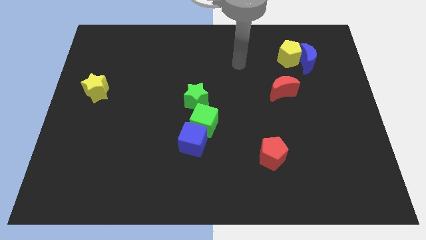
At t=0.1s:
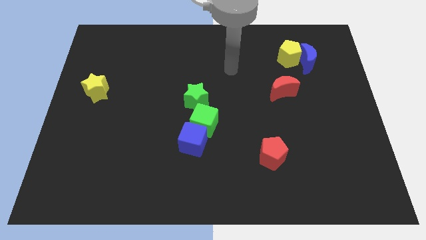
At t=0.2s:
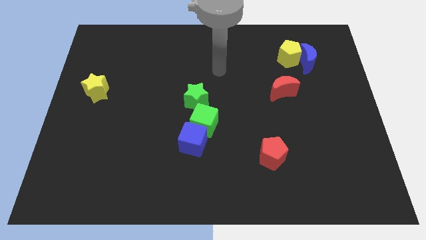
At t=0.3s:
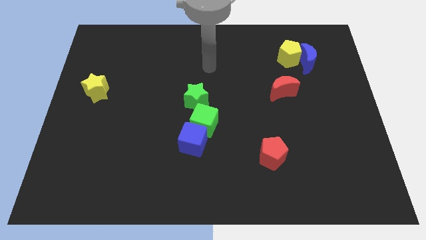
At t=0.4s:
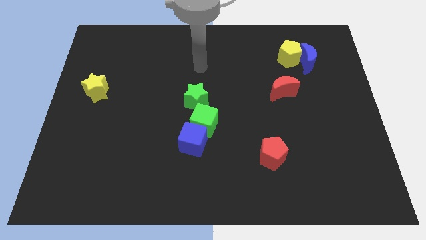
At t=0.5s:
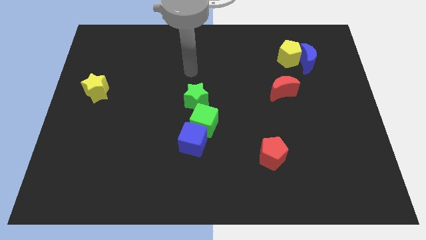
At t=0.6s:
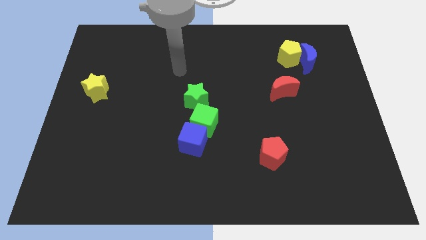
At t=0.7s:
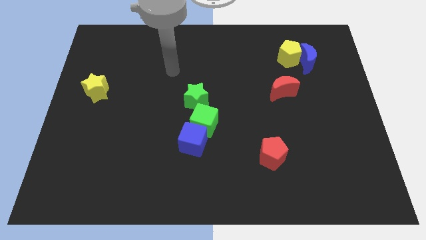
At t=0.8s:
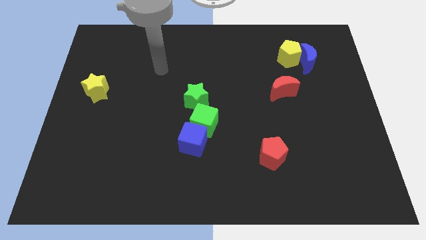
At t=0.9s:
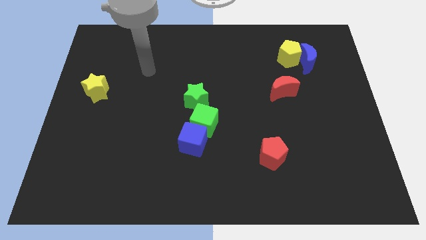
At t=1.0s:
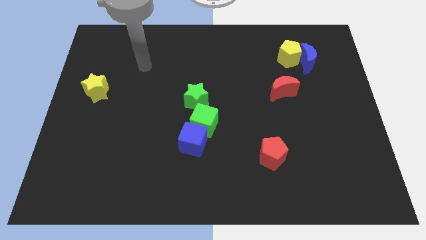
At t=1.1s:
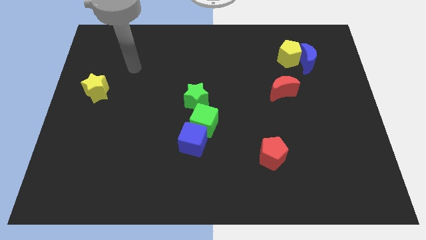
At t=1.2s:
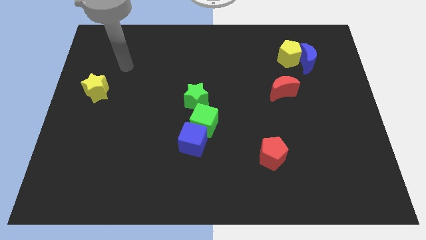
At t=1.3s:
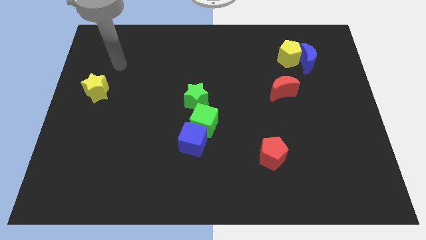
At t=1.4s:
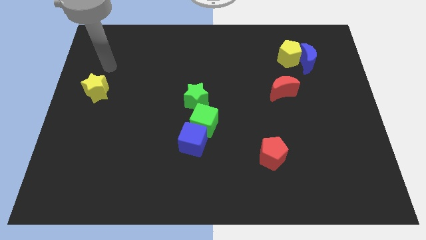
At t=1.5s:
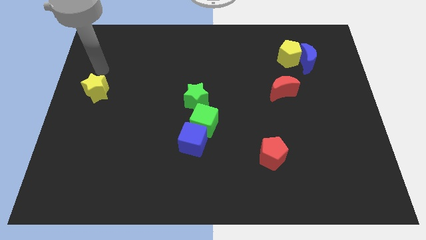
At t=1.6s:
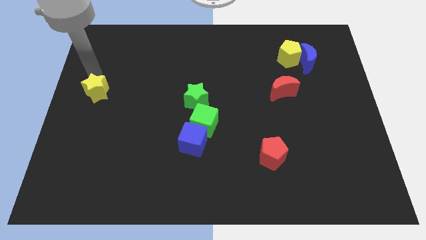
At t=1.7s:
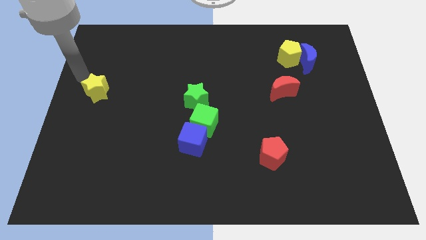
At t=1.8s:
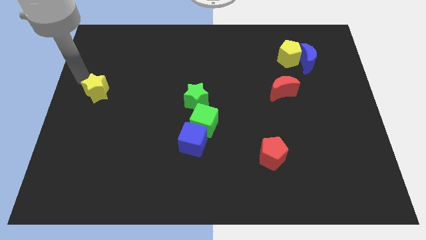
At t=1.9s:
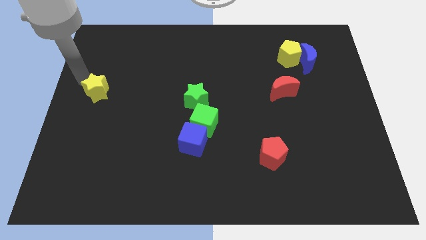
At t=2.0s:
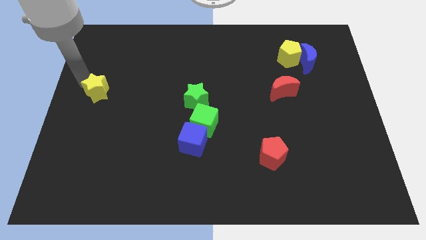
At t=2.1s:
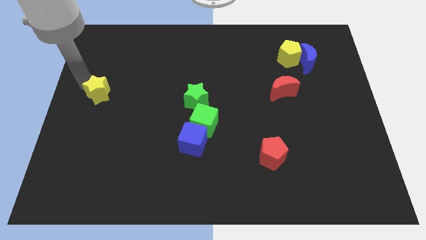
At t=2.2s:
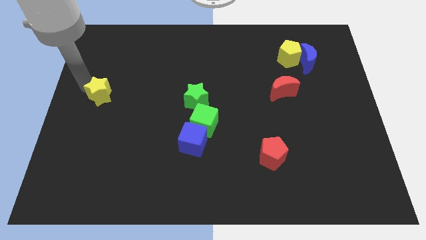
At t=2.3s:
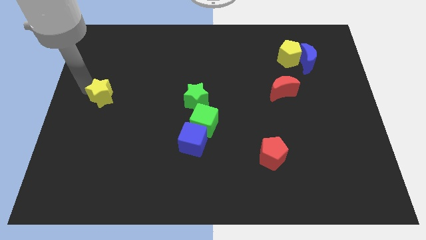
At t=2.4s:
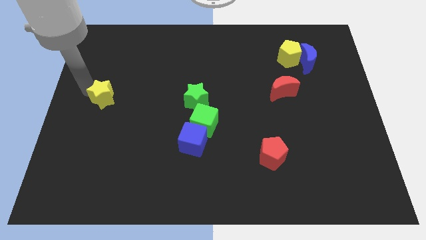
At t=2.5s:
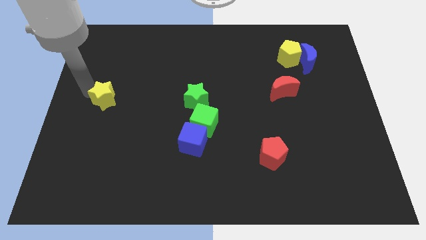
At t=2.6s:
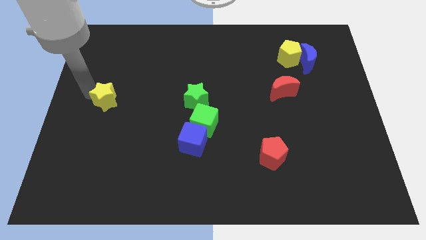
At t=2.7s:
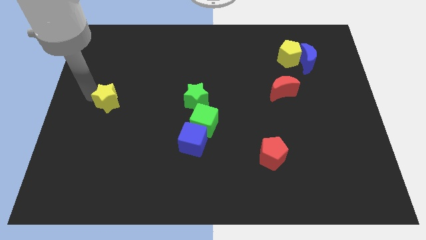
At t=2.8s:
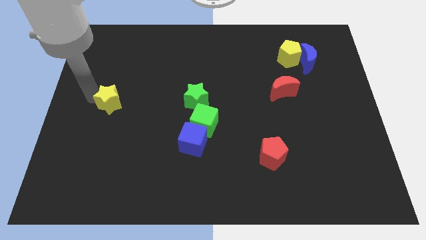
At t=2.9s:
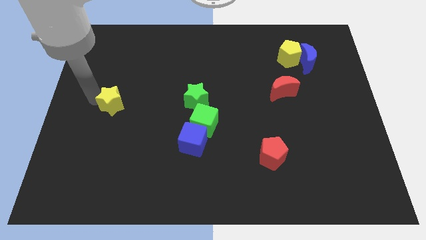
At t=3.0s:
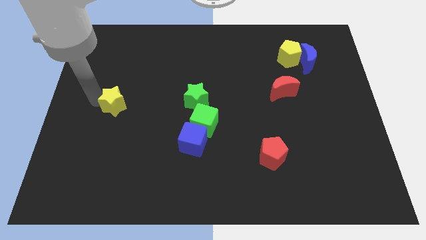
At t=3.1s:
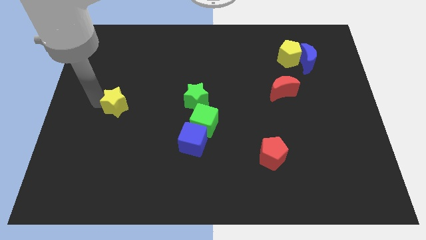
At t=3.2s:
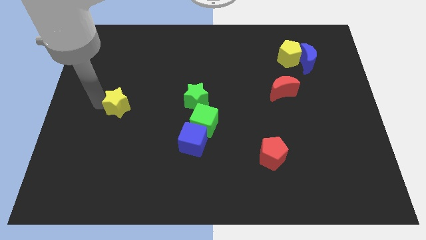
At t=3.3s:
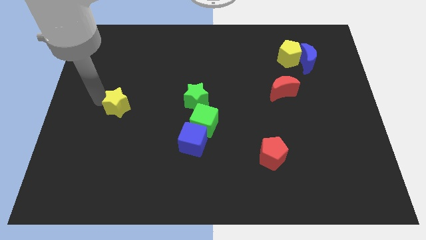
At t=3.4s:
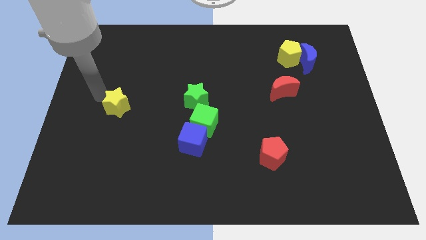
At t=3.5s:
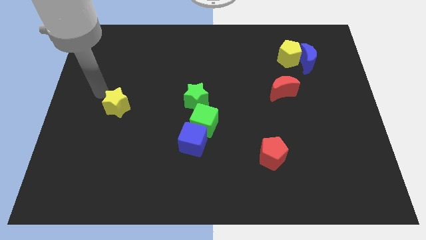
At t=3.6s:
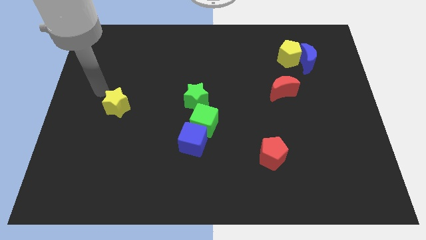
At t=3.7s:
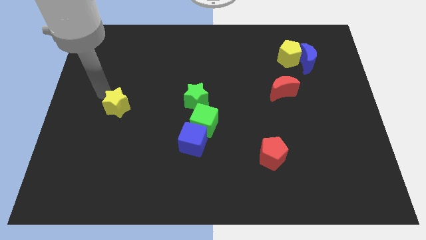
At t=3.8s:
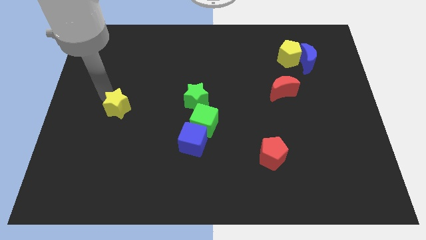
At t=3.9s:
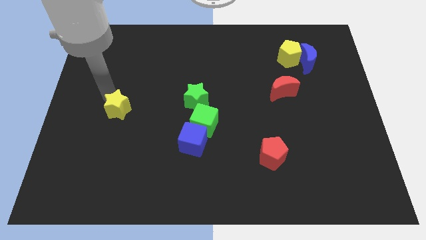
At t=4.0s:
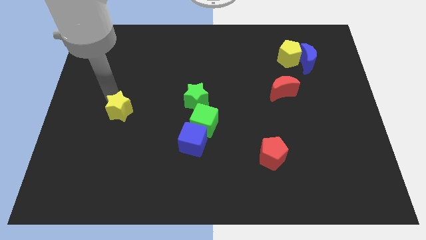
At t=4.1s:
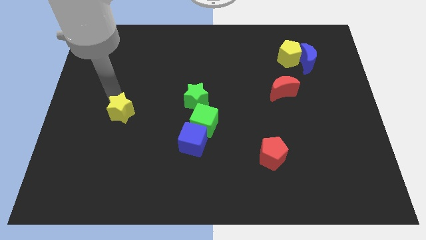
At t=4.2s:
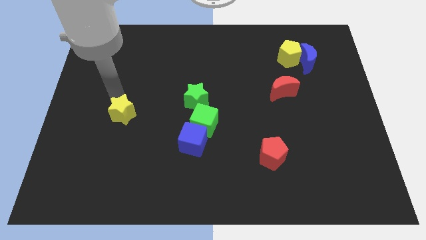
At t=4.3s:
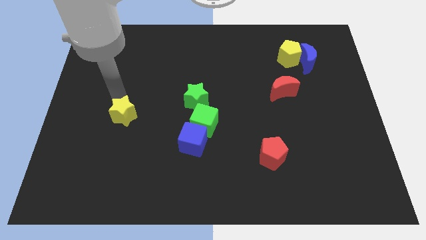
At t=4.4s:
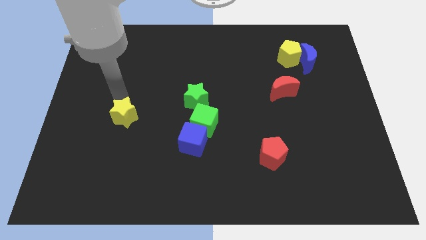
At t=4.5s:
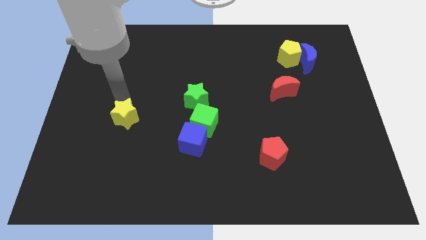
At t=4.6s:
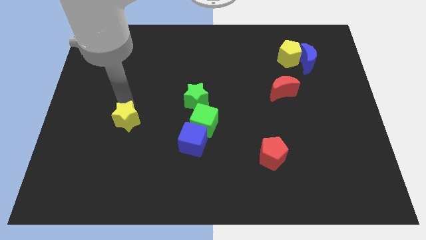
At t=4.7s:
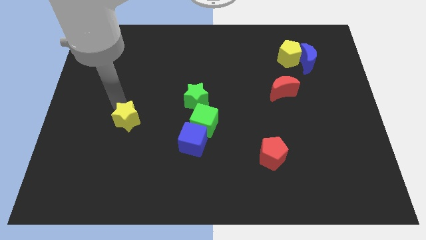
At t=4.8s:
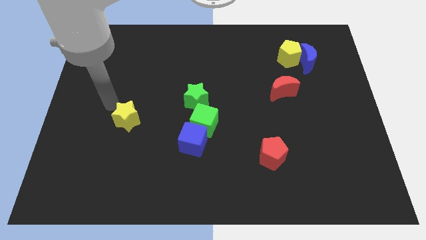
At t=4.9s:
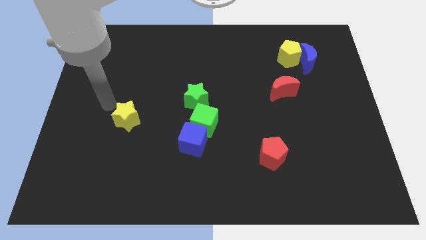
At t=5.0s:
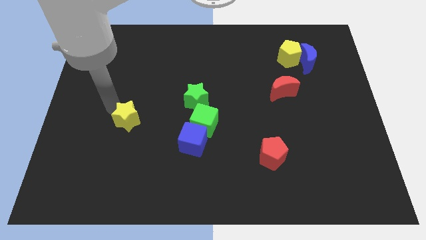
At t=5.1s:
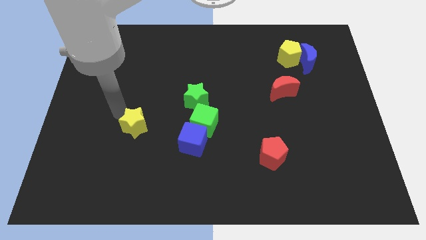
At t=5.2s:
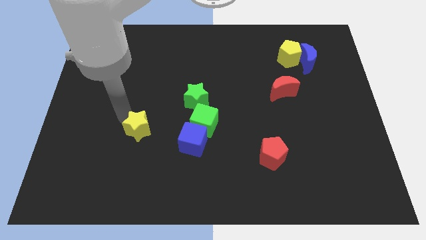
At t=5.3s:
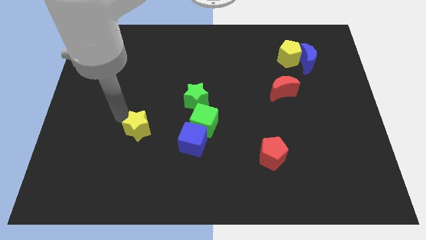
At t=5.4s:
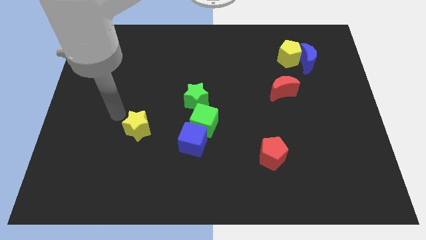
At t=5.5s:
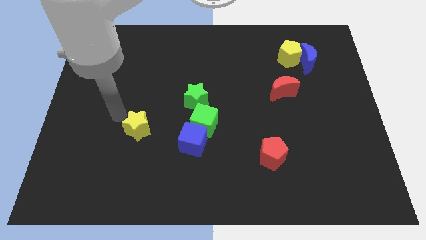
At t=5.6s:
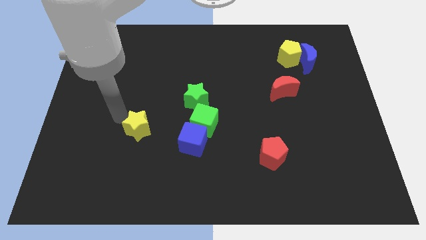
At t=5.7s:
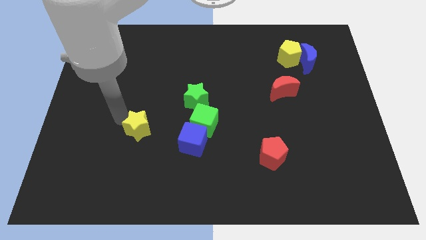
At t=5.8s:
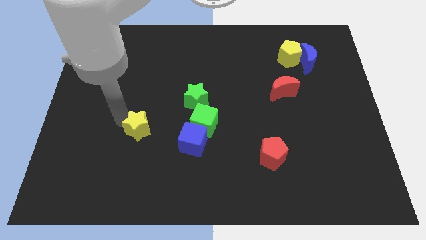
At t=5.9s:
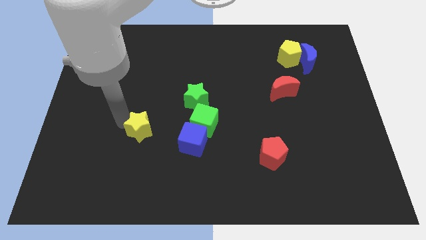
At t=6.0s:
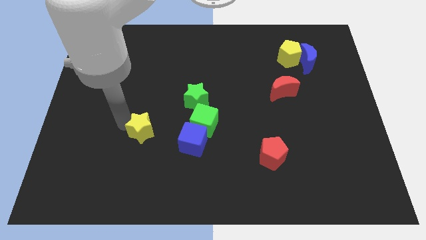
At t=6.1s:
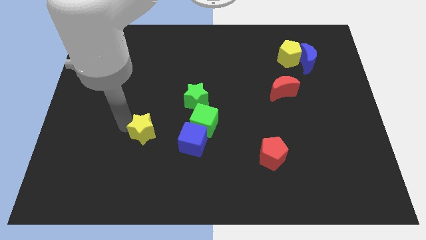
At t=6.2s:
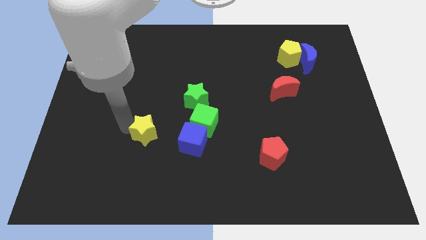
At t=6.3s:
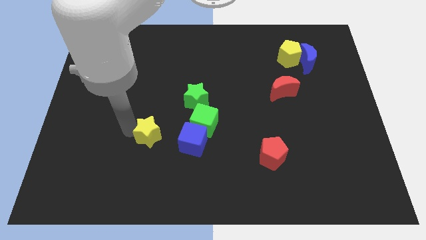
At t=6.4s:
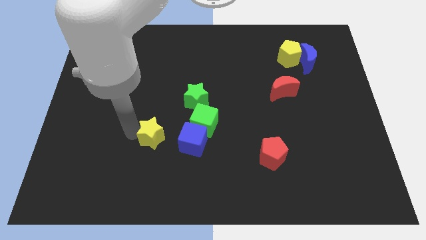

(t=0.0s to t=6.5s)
slide the yellow star diagonally downwards and right

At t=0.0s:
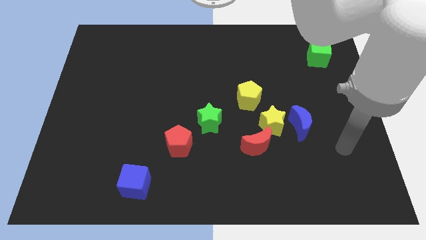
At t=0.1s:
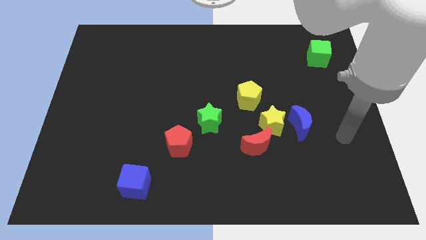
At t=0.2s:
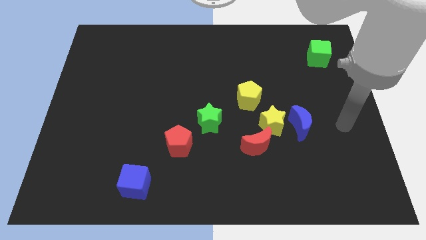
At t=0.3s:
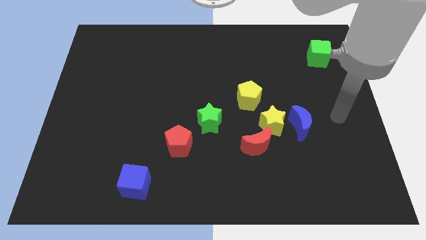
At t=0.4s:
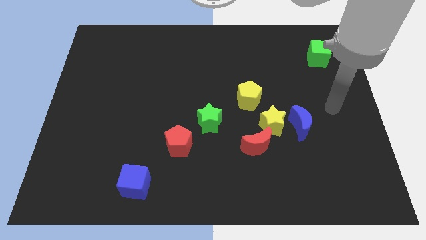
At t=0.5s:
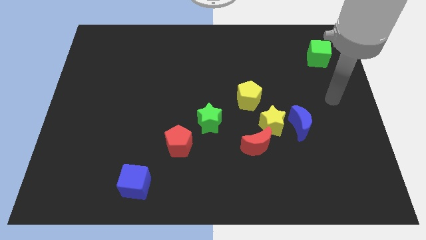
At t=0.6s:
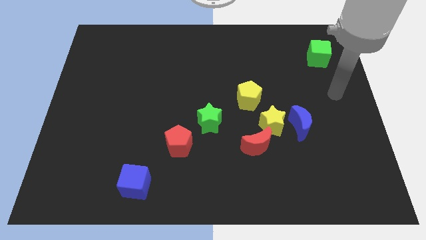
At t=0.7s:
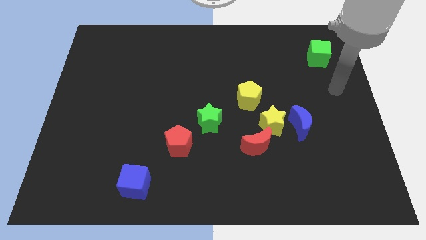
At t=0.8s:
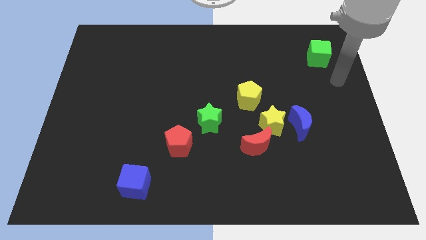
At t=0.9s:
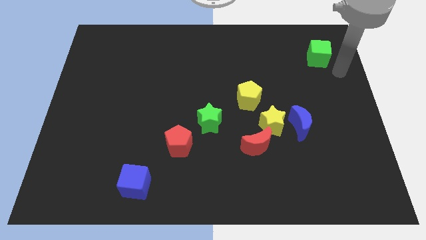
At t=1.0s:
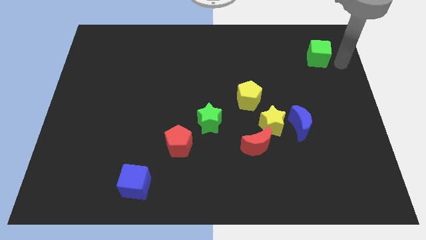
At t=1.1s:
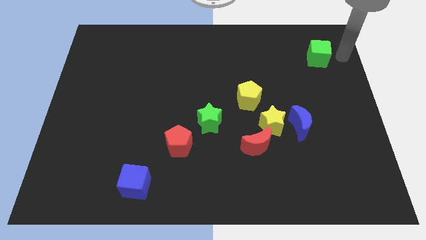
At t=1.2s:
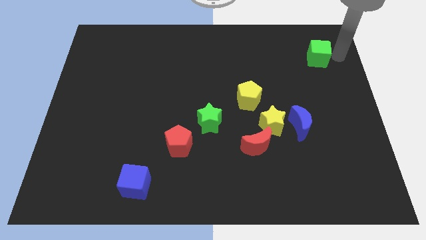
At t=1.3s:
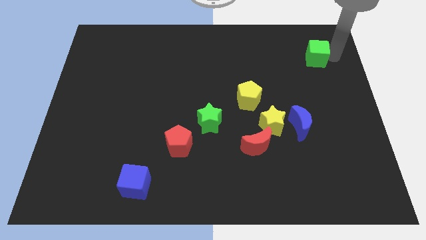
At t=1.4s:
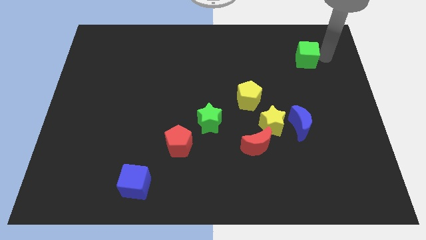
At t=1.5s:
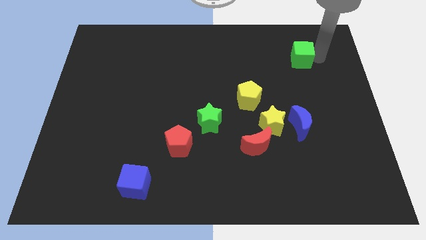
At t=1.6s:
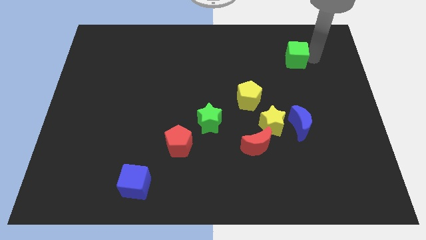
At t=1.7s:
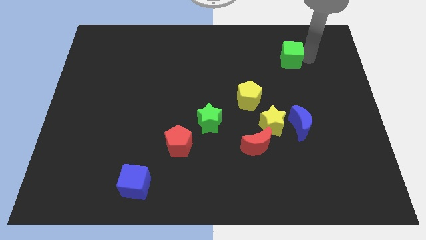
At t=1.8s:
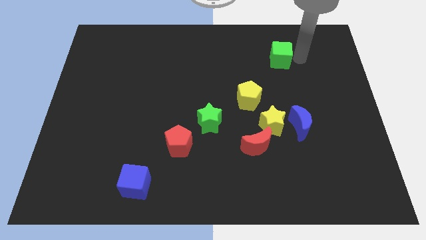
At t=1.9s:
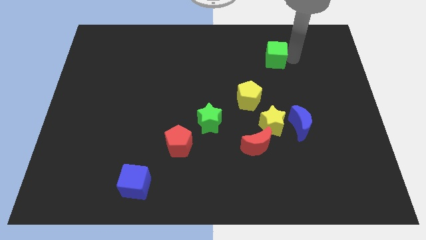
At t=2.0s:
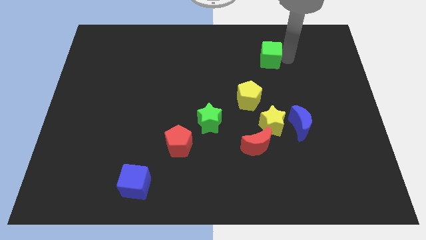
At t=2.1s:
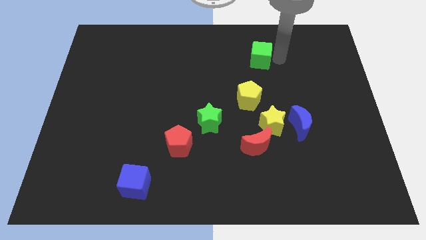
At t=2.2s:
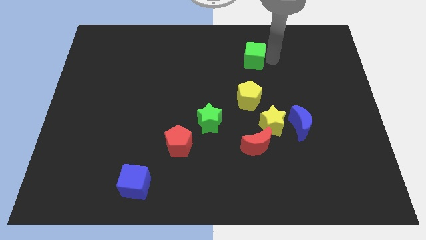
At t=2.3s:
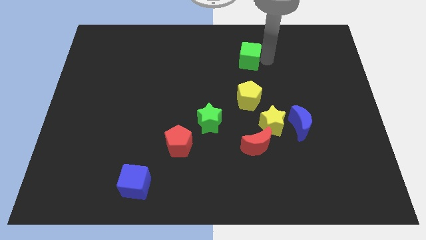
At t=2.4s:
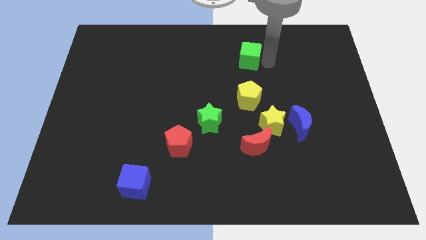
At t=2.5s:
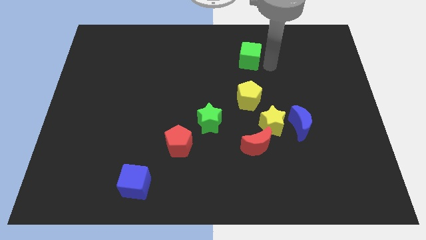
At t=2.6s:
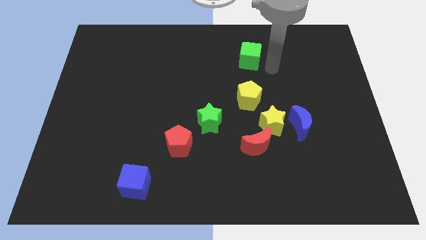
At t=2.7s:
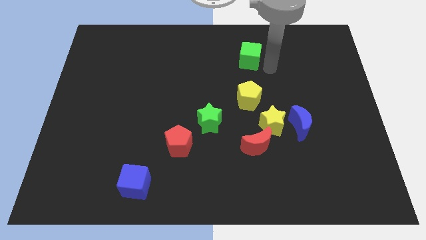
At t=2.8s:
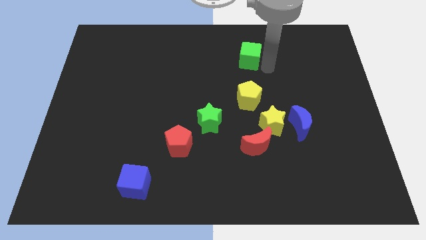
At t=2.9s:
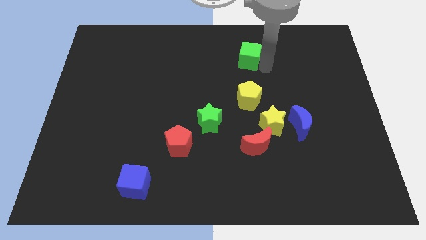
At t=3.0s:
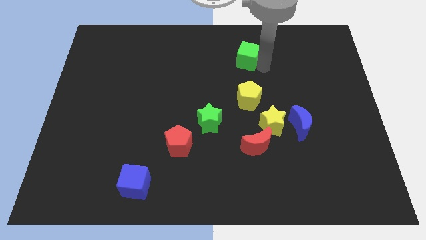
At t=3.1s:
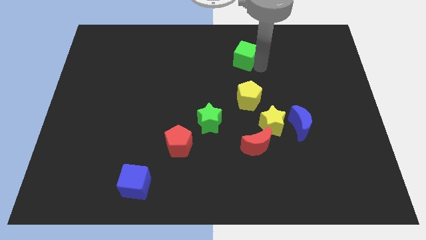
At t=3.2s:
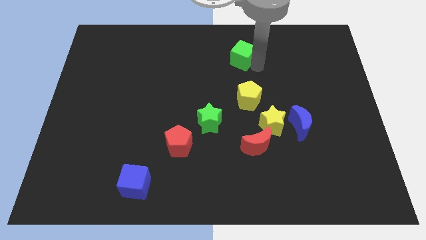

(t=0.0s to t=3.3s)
push the green cube left
